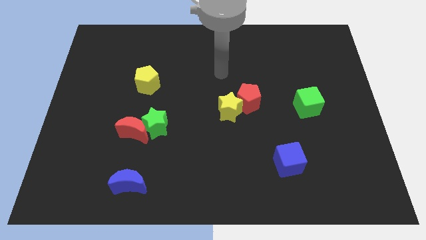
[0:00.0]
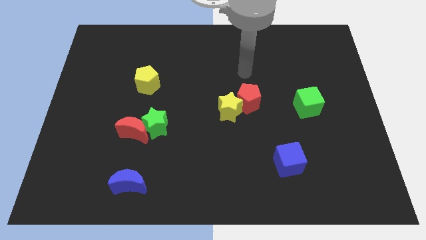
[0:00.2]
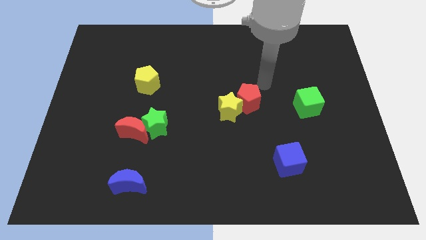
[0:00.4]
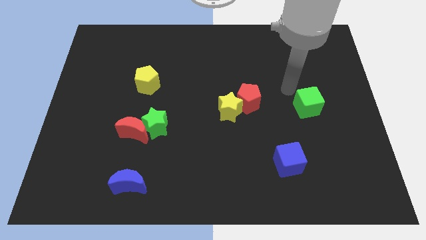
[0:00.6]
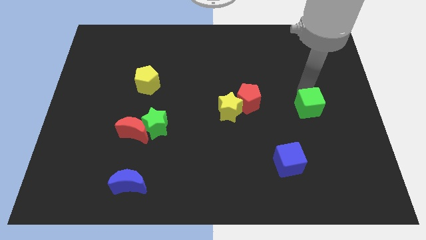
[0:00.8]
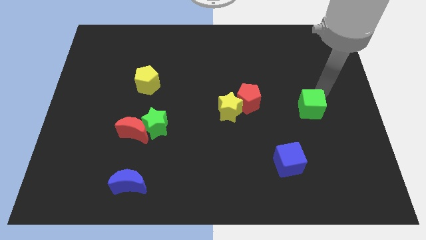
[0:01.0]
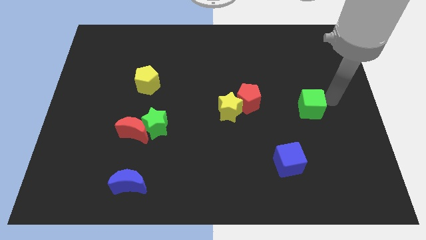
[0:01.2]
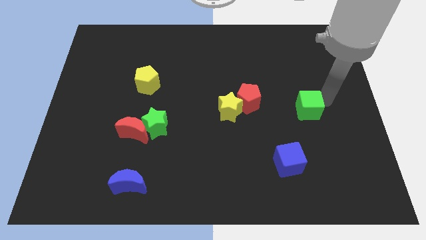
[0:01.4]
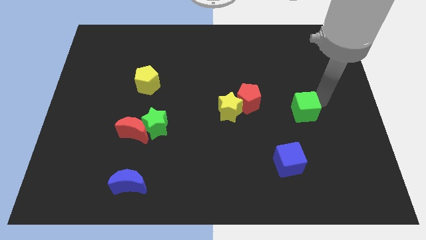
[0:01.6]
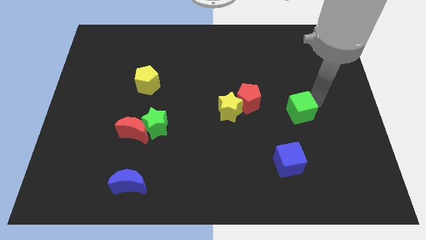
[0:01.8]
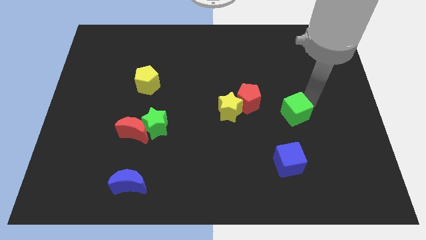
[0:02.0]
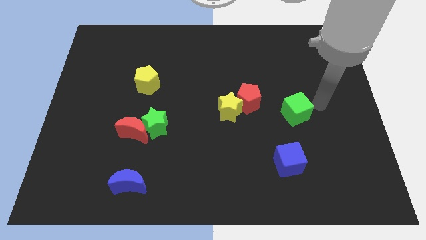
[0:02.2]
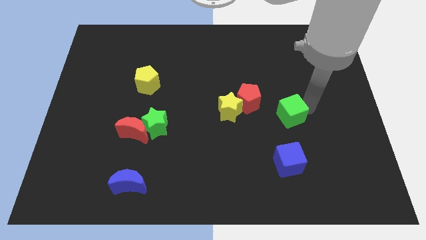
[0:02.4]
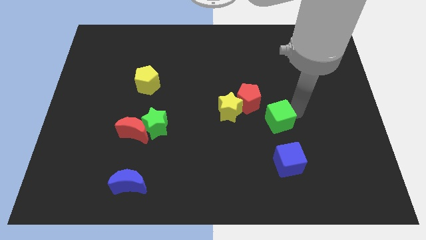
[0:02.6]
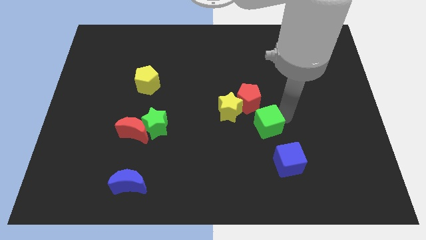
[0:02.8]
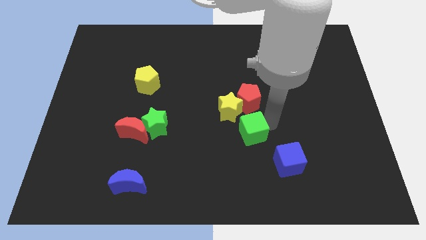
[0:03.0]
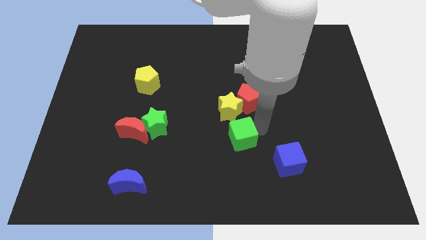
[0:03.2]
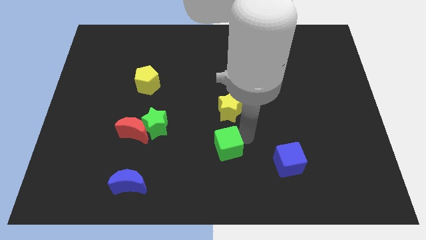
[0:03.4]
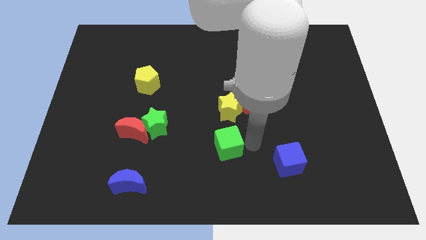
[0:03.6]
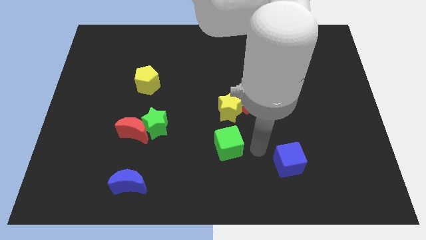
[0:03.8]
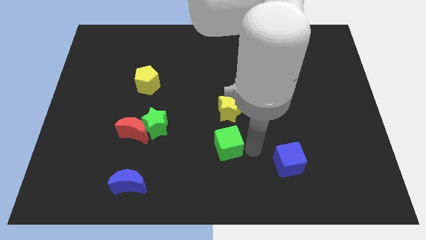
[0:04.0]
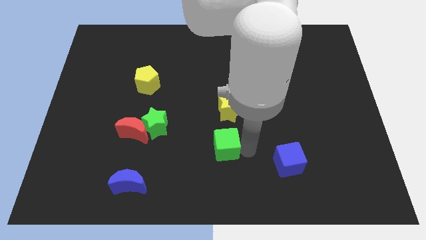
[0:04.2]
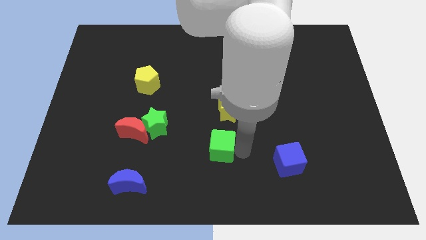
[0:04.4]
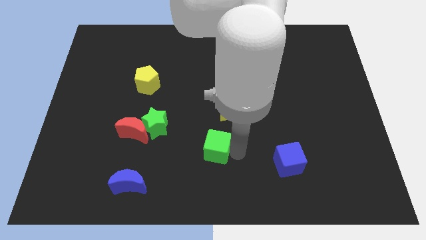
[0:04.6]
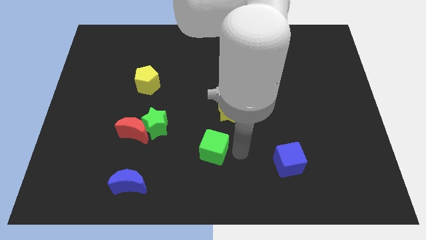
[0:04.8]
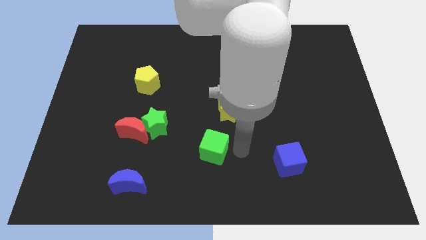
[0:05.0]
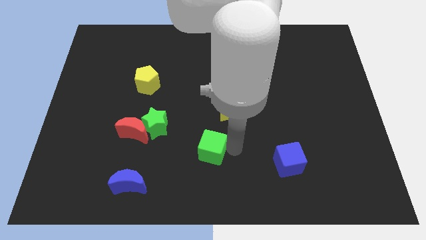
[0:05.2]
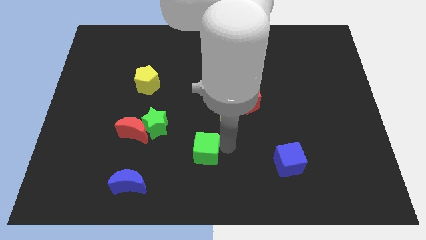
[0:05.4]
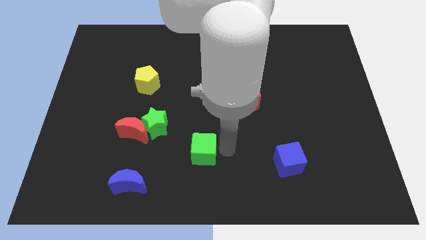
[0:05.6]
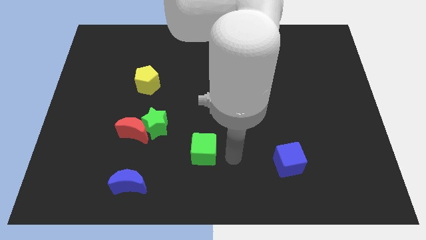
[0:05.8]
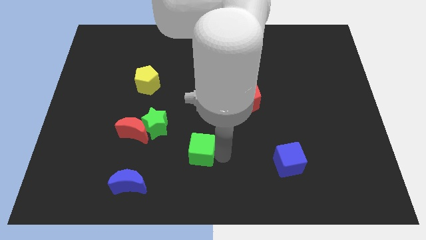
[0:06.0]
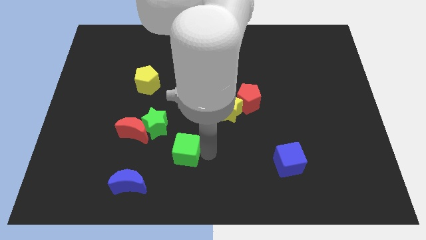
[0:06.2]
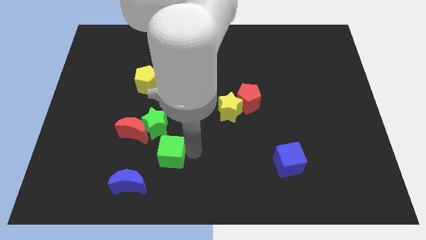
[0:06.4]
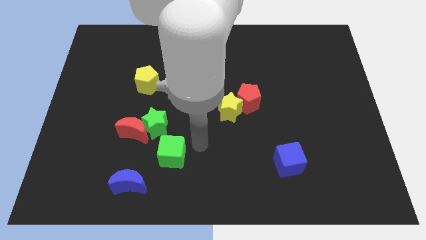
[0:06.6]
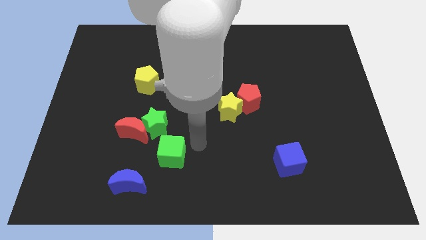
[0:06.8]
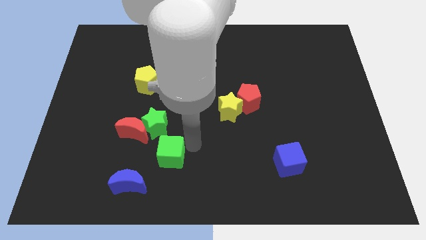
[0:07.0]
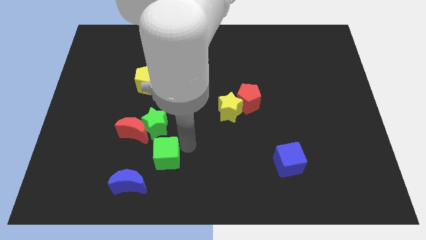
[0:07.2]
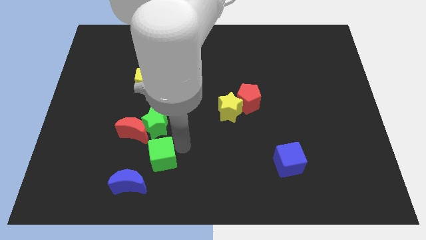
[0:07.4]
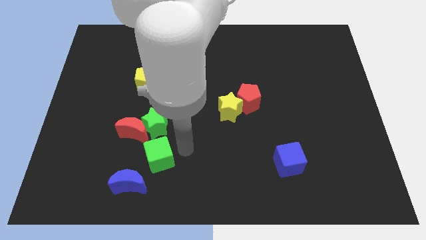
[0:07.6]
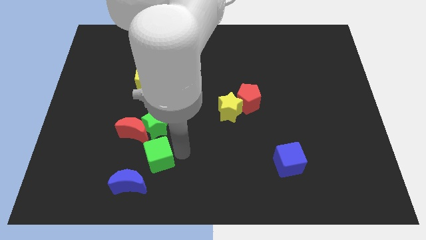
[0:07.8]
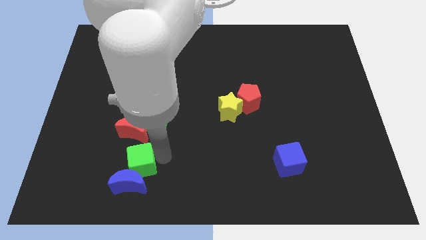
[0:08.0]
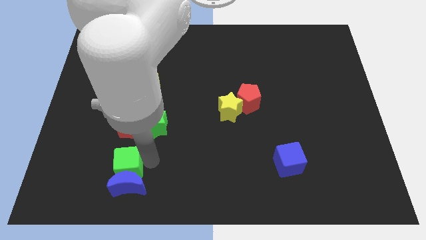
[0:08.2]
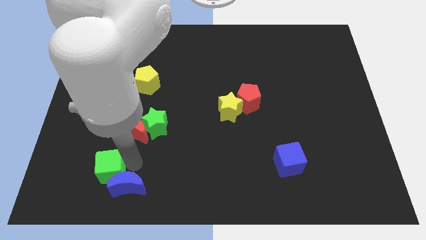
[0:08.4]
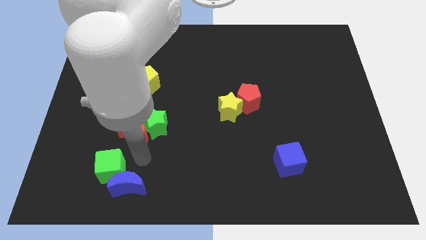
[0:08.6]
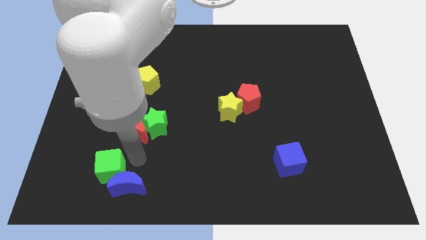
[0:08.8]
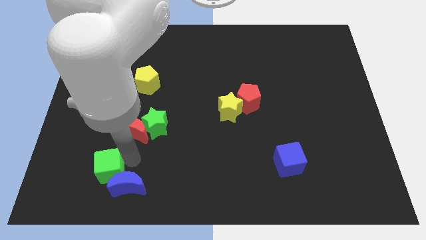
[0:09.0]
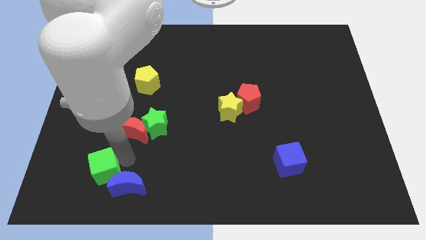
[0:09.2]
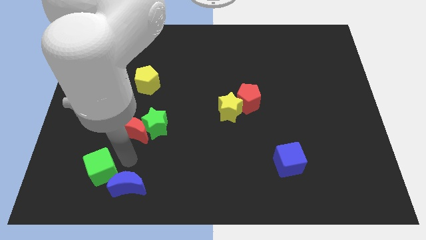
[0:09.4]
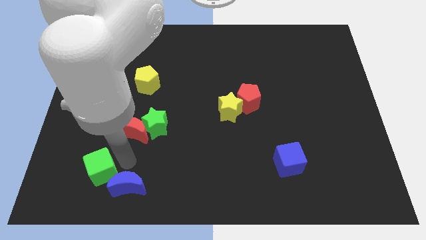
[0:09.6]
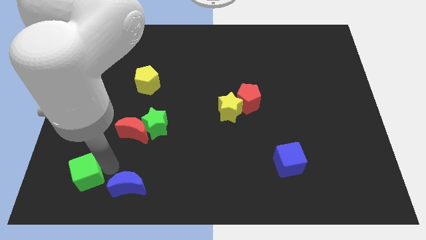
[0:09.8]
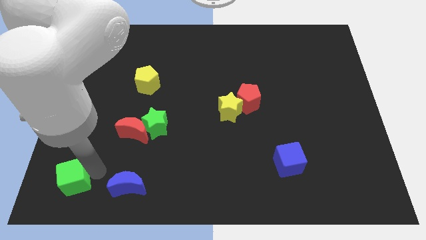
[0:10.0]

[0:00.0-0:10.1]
move the green cube to the bottom left

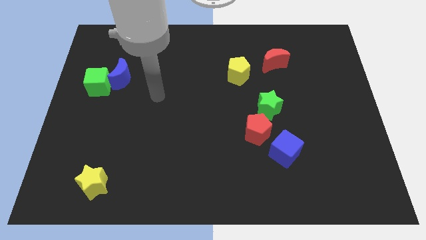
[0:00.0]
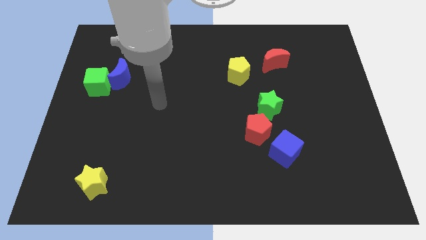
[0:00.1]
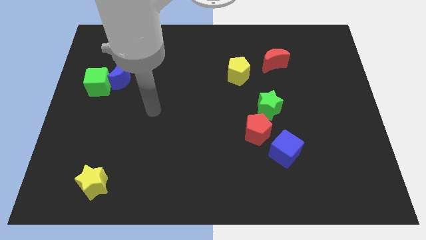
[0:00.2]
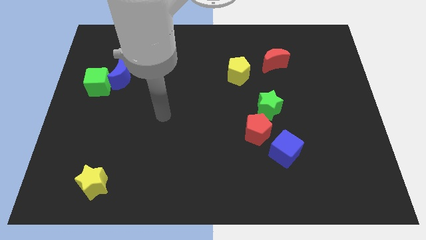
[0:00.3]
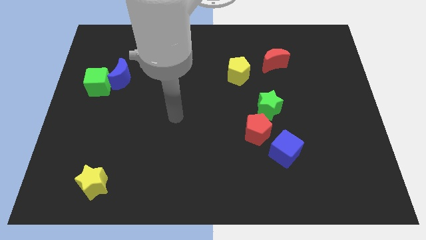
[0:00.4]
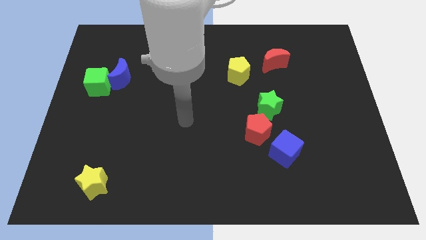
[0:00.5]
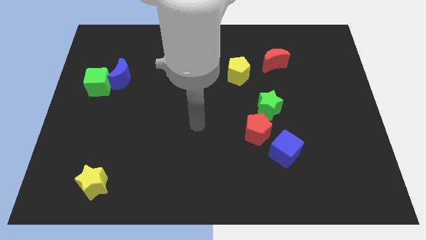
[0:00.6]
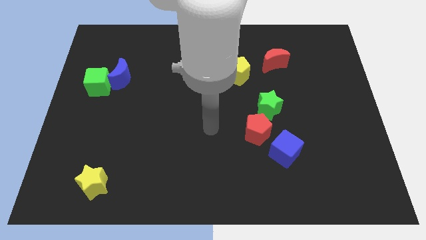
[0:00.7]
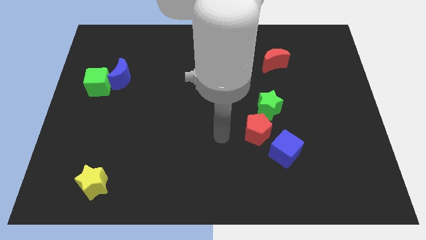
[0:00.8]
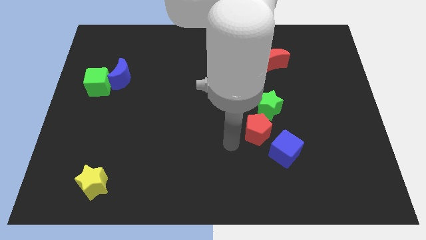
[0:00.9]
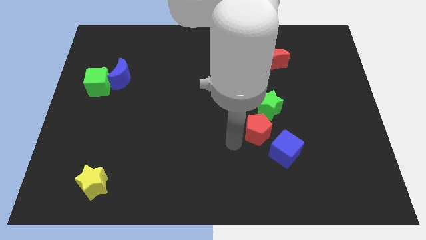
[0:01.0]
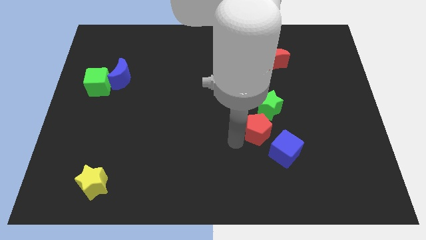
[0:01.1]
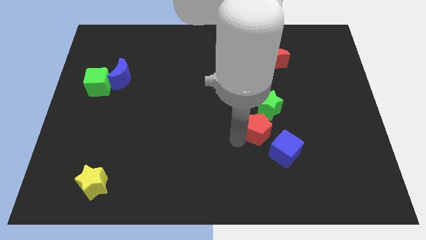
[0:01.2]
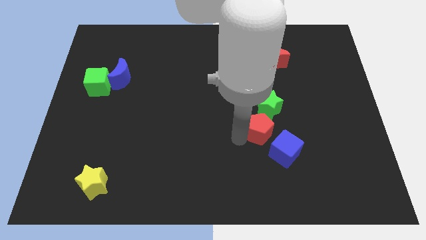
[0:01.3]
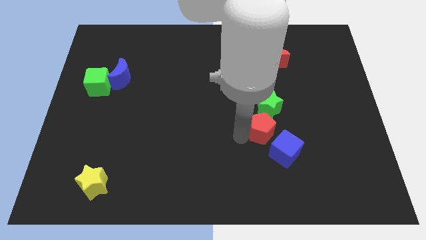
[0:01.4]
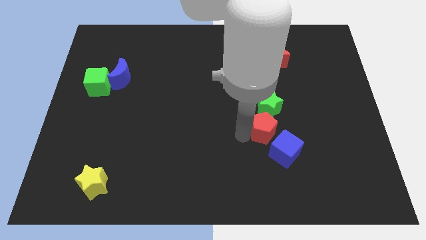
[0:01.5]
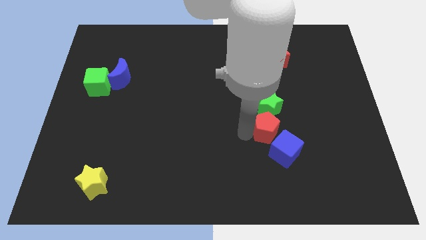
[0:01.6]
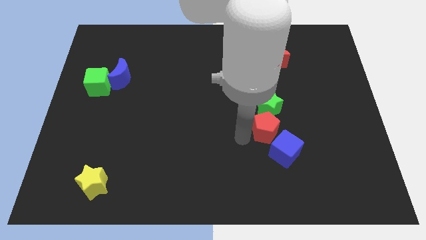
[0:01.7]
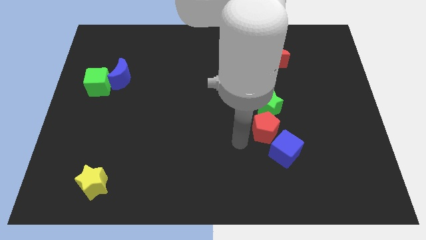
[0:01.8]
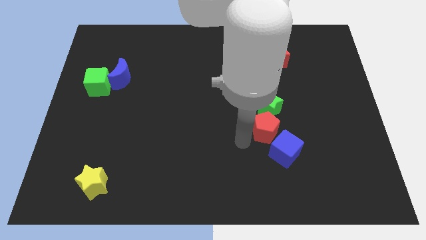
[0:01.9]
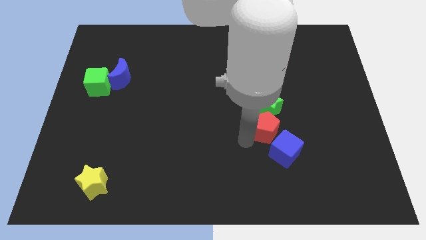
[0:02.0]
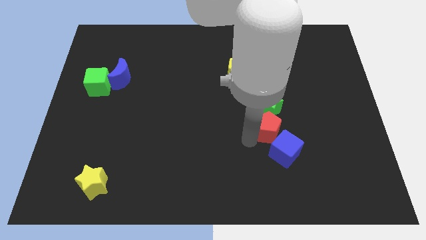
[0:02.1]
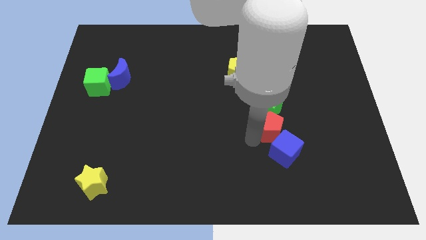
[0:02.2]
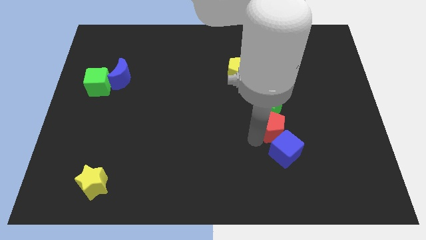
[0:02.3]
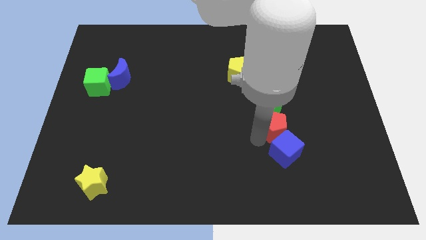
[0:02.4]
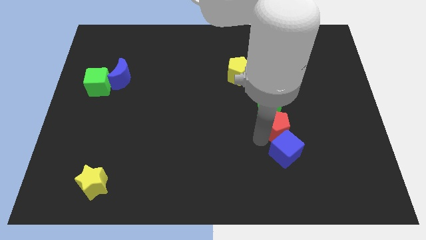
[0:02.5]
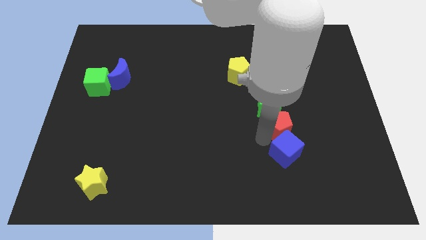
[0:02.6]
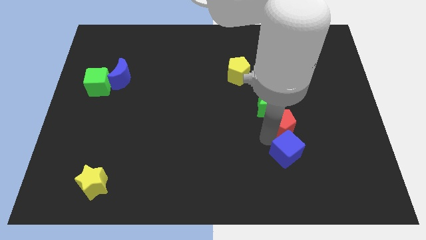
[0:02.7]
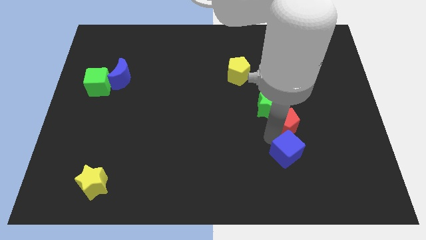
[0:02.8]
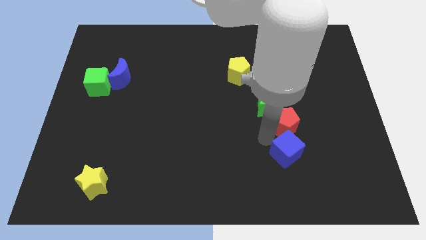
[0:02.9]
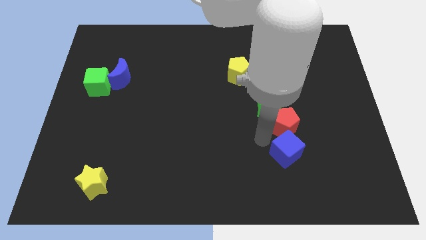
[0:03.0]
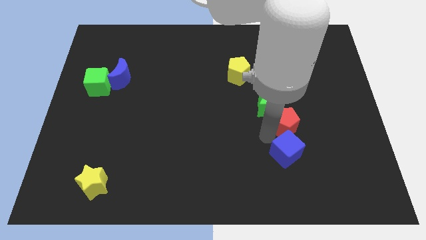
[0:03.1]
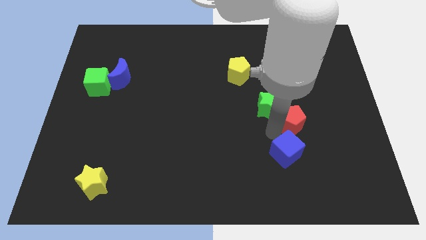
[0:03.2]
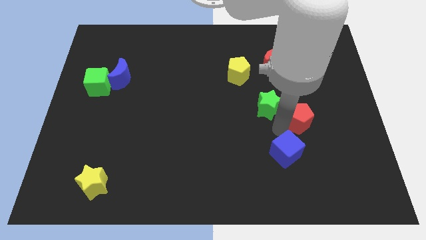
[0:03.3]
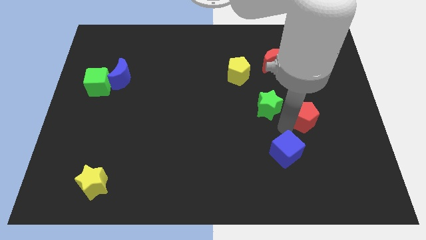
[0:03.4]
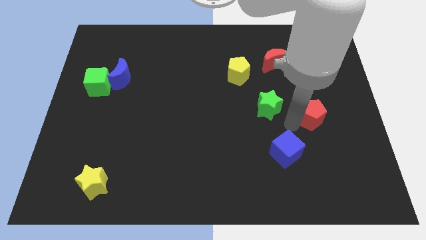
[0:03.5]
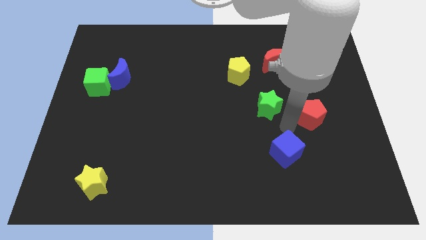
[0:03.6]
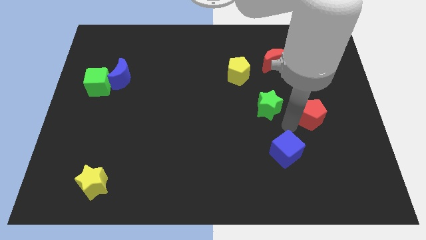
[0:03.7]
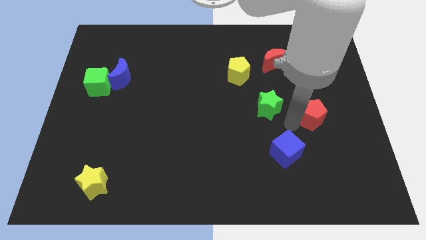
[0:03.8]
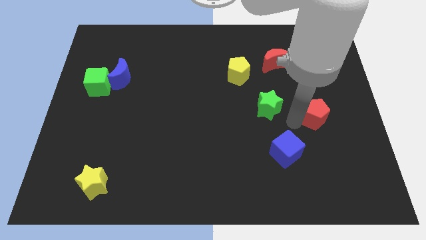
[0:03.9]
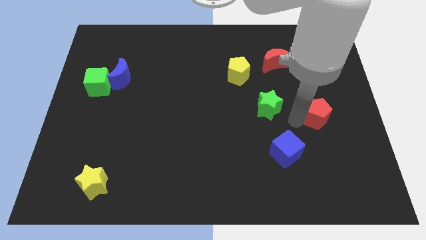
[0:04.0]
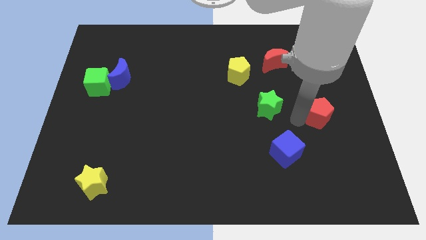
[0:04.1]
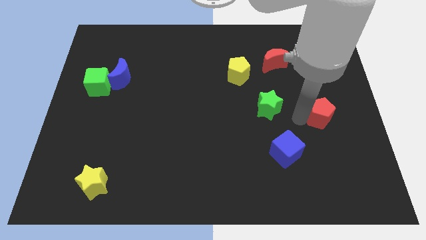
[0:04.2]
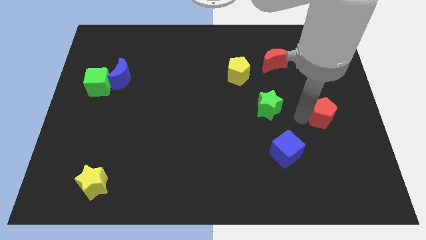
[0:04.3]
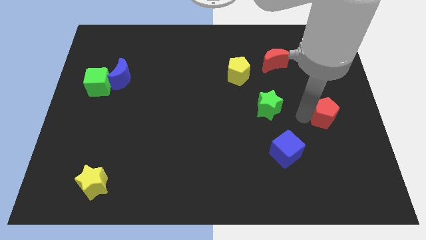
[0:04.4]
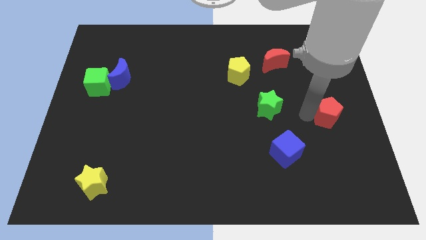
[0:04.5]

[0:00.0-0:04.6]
slide the red pentagon to the right side
